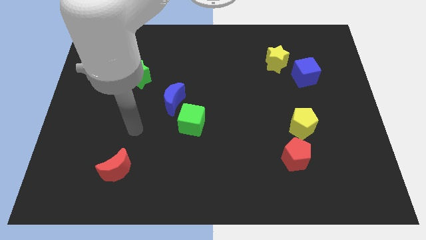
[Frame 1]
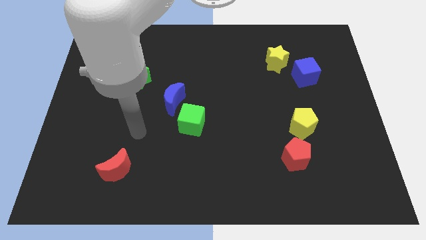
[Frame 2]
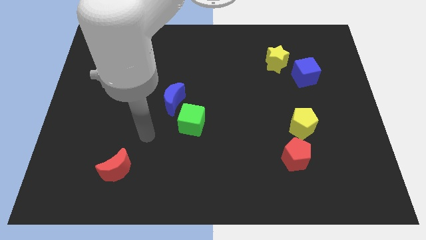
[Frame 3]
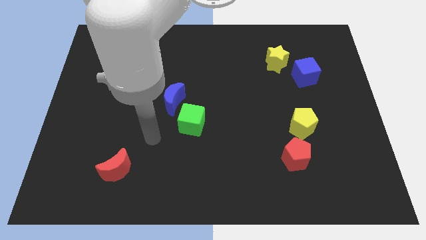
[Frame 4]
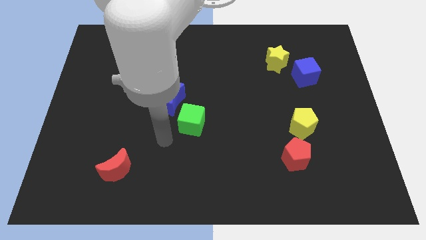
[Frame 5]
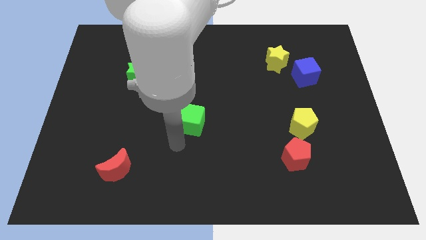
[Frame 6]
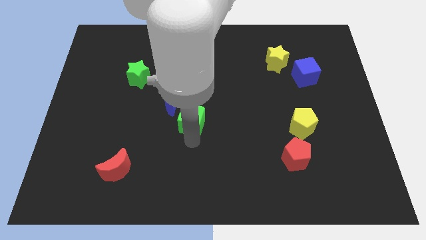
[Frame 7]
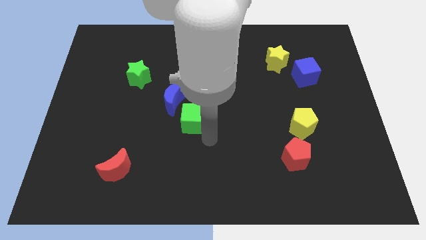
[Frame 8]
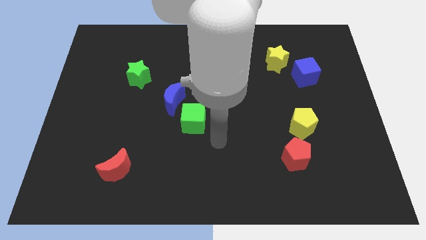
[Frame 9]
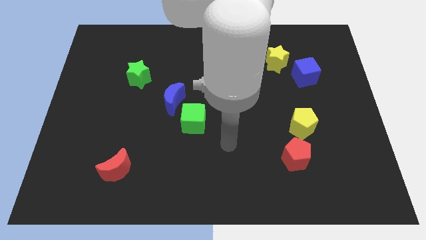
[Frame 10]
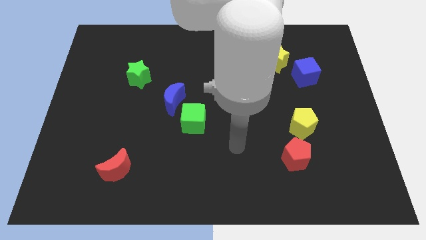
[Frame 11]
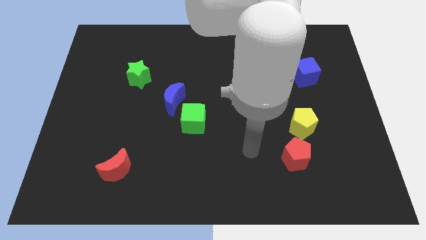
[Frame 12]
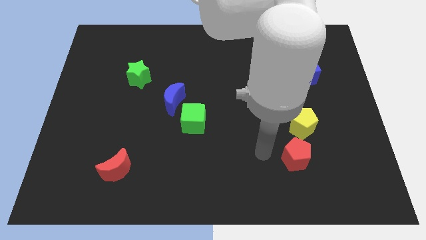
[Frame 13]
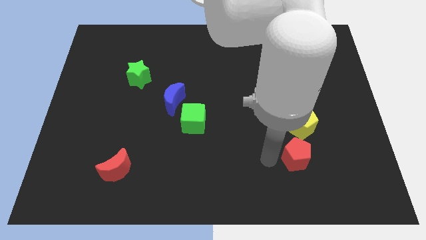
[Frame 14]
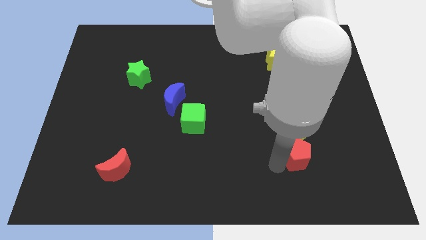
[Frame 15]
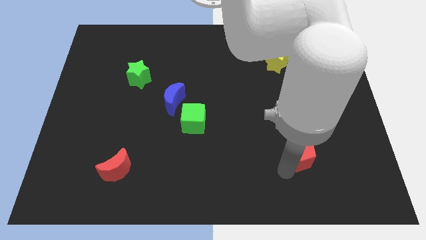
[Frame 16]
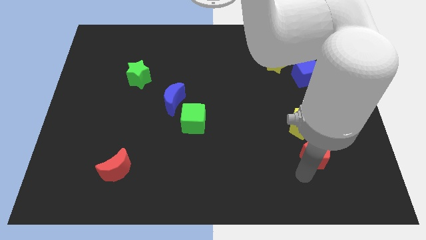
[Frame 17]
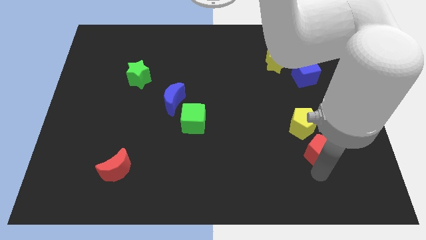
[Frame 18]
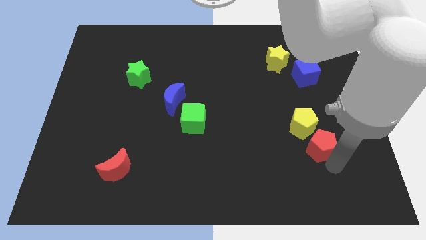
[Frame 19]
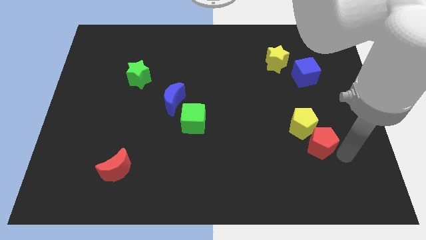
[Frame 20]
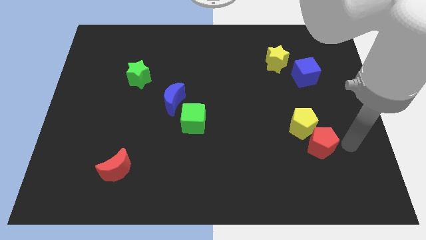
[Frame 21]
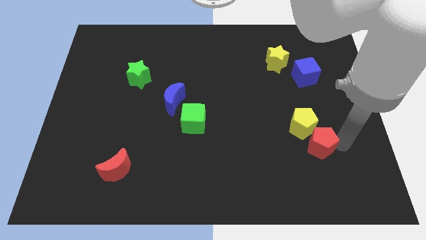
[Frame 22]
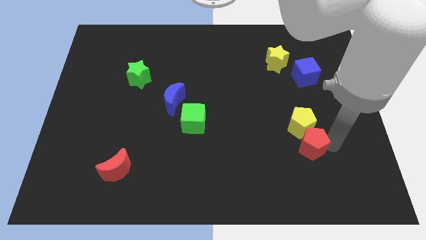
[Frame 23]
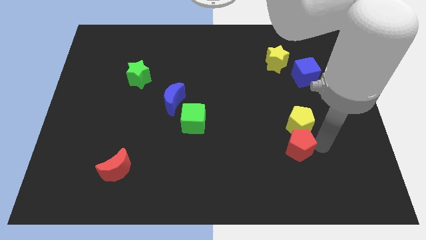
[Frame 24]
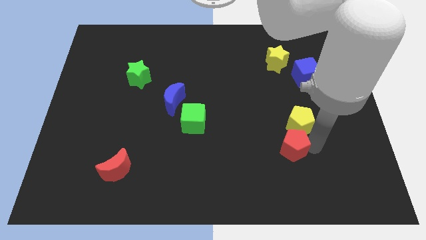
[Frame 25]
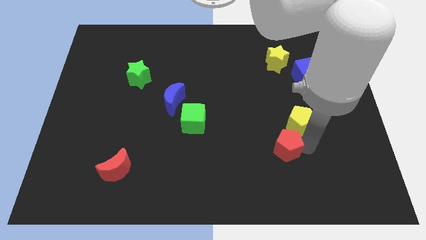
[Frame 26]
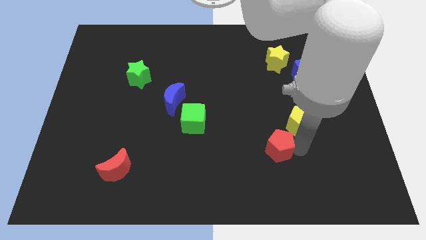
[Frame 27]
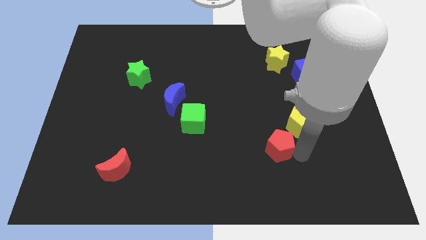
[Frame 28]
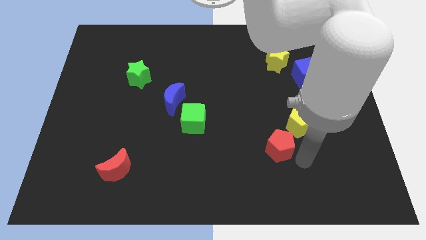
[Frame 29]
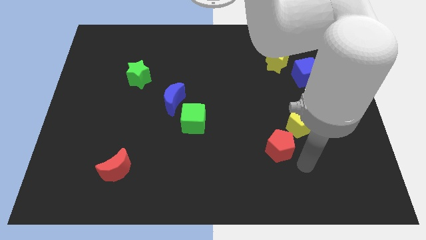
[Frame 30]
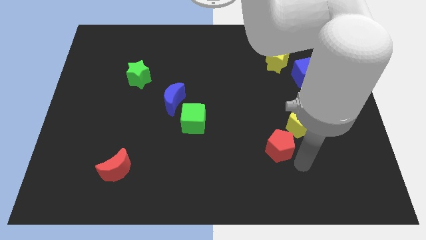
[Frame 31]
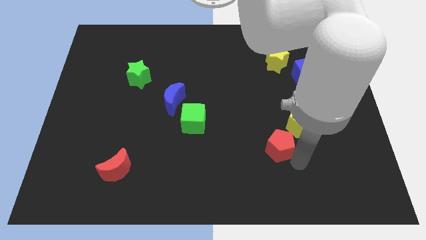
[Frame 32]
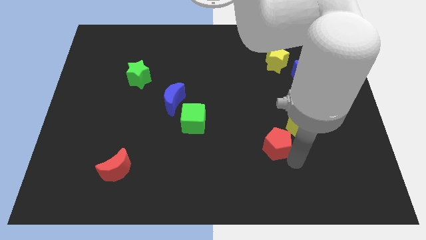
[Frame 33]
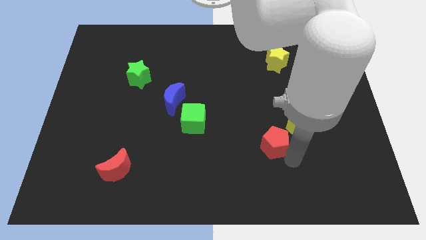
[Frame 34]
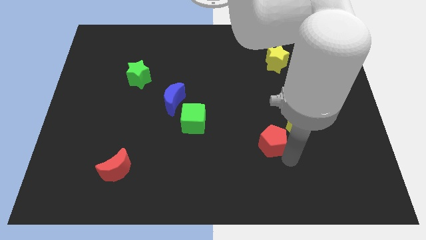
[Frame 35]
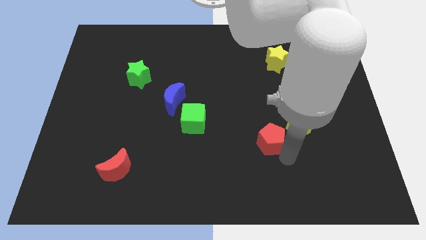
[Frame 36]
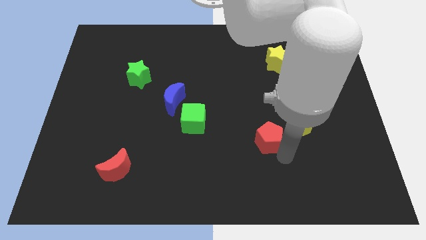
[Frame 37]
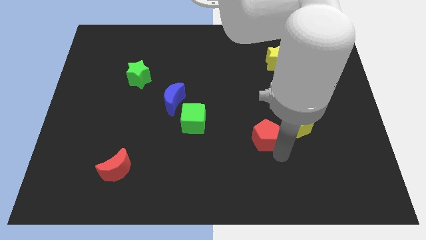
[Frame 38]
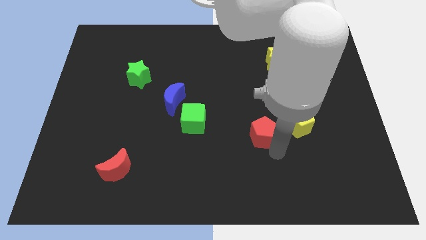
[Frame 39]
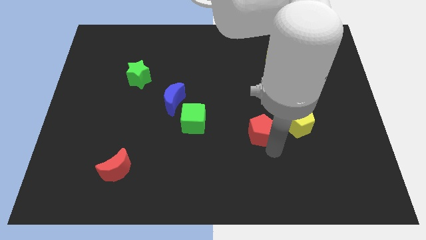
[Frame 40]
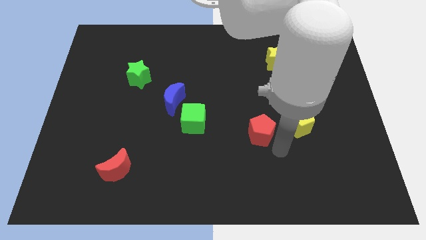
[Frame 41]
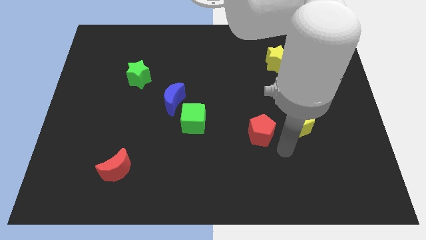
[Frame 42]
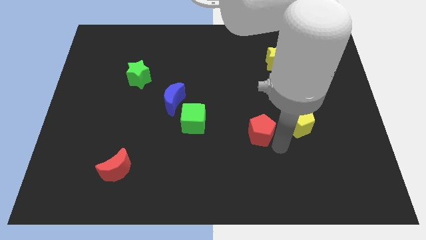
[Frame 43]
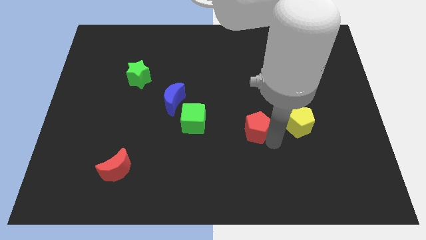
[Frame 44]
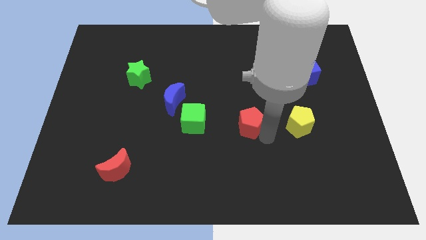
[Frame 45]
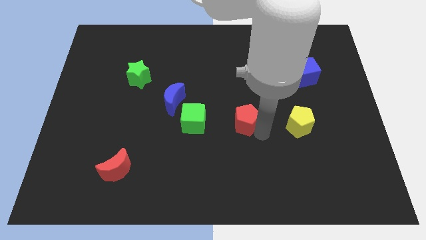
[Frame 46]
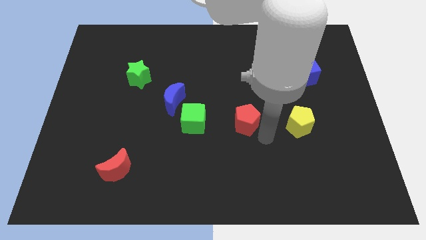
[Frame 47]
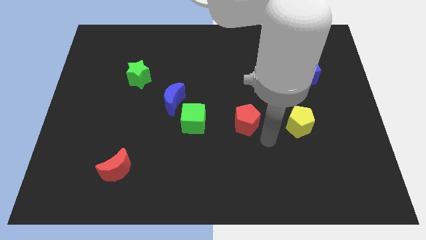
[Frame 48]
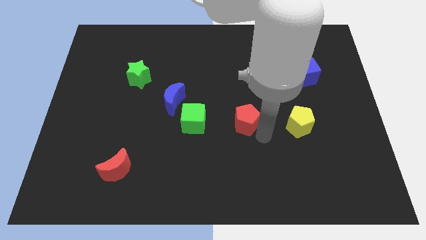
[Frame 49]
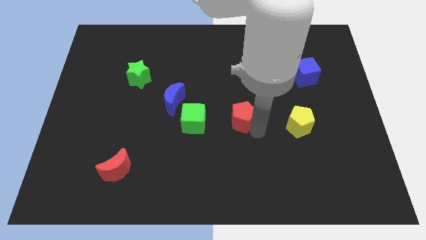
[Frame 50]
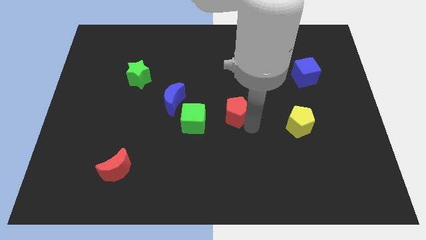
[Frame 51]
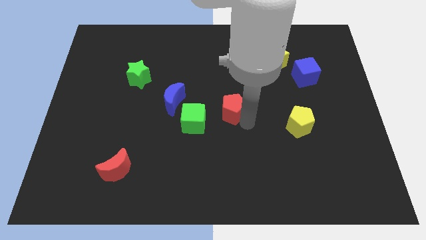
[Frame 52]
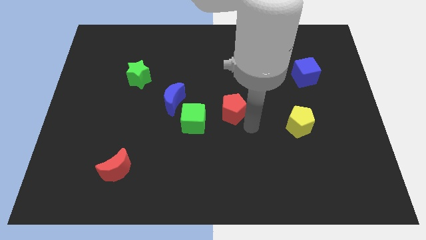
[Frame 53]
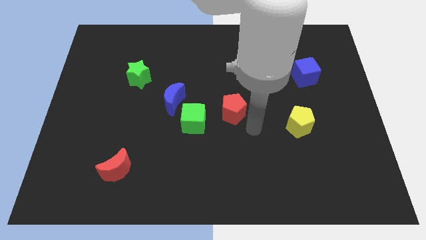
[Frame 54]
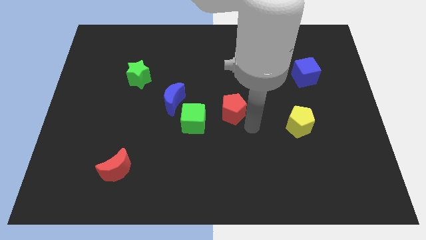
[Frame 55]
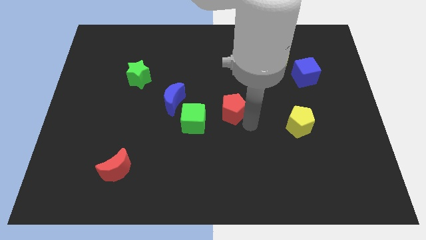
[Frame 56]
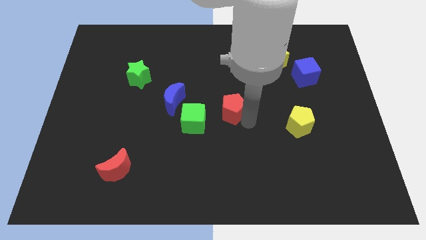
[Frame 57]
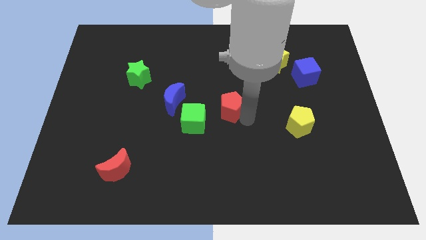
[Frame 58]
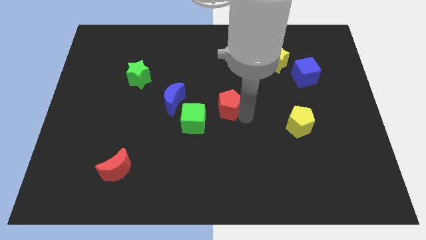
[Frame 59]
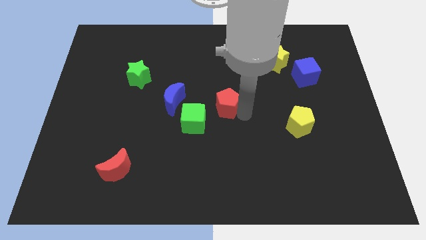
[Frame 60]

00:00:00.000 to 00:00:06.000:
move the red pentagon upwards and left

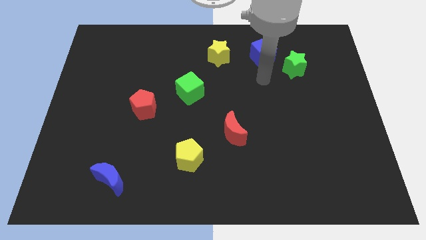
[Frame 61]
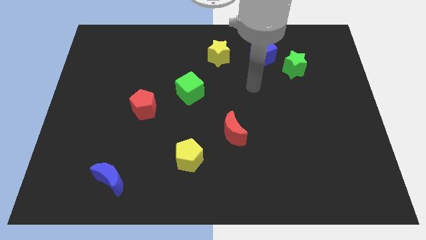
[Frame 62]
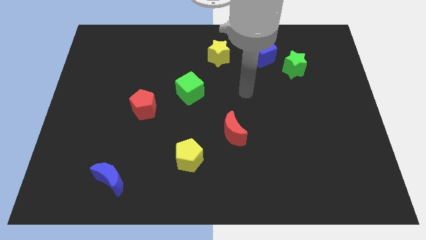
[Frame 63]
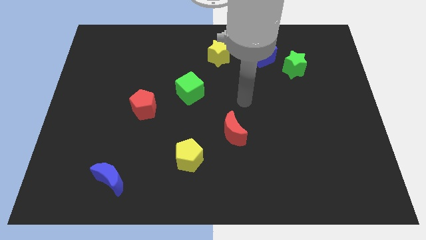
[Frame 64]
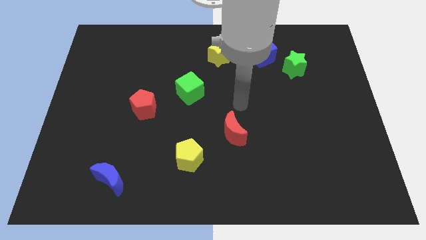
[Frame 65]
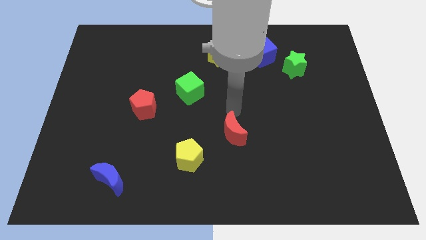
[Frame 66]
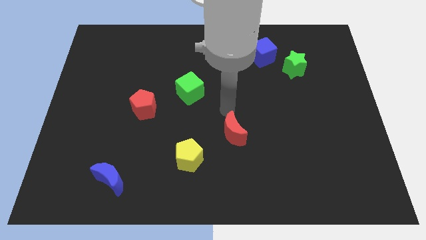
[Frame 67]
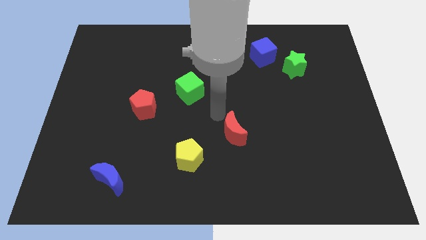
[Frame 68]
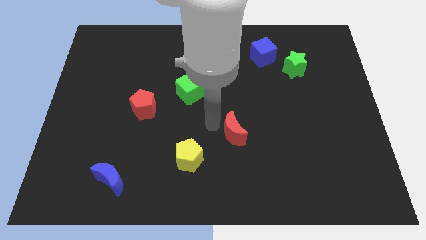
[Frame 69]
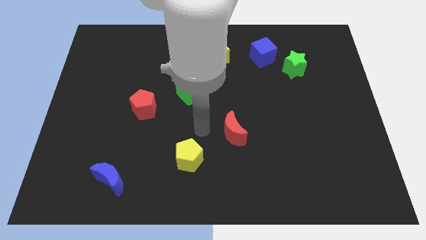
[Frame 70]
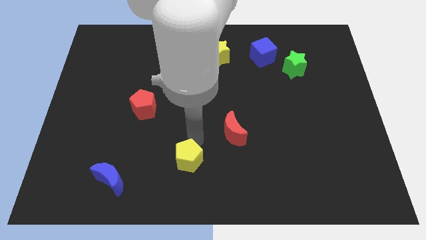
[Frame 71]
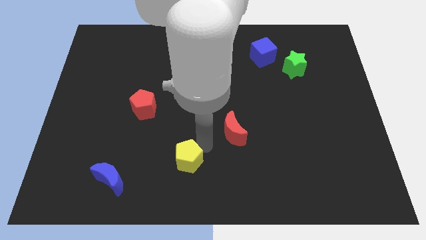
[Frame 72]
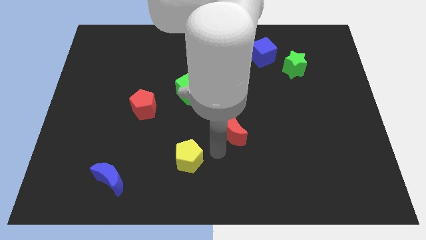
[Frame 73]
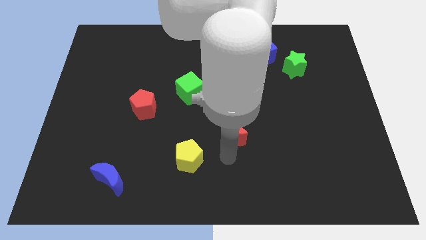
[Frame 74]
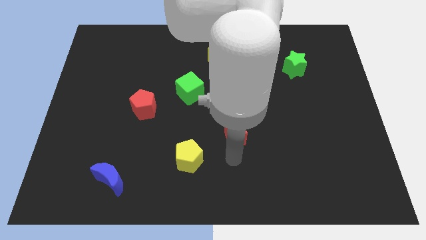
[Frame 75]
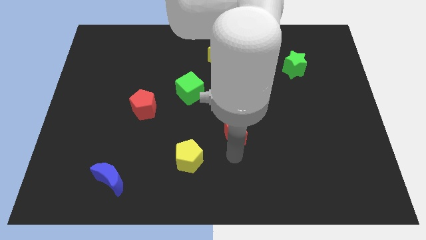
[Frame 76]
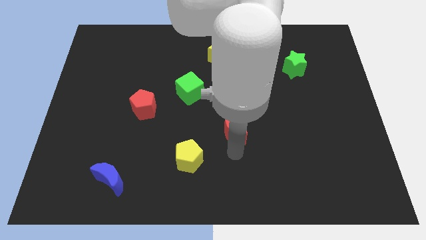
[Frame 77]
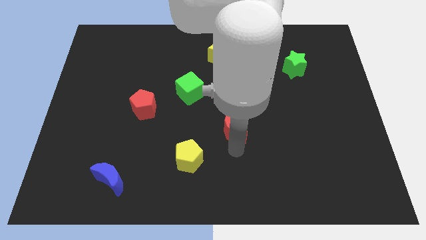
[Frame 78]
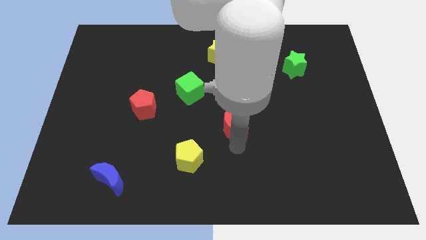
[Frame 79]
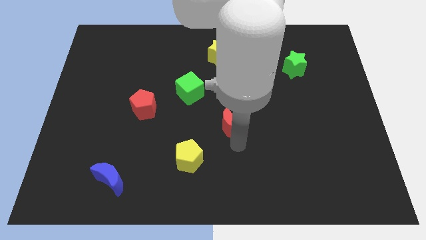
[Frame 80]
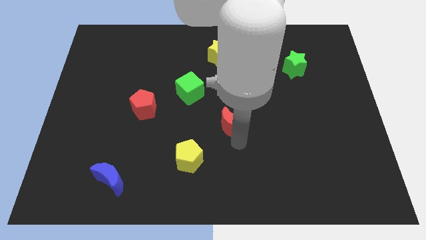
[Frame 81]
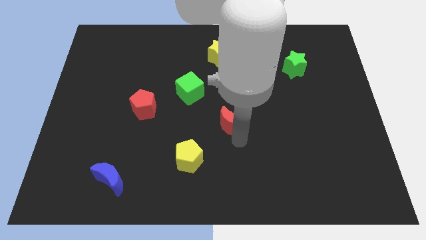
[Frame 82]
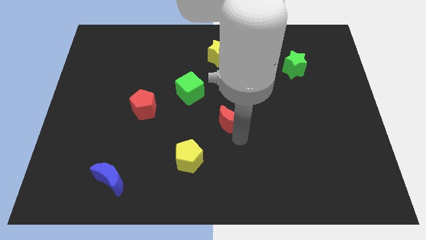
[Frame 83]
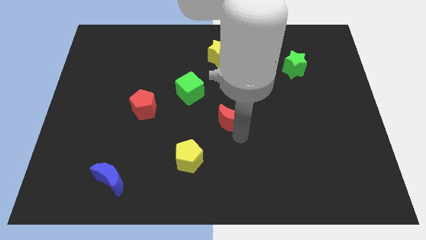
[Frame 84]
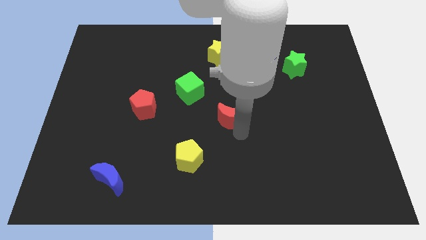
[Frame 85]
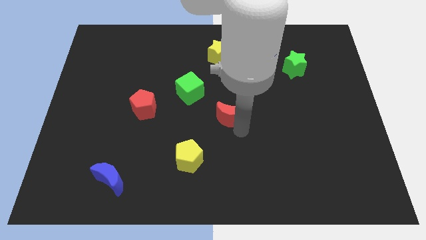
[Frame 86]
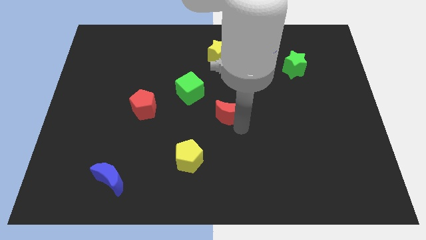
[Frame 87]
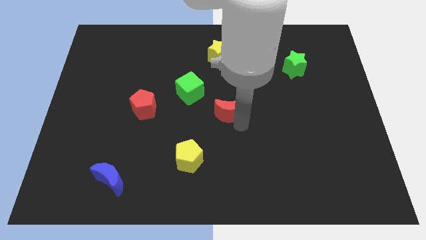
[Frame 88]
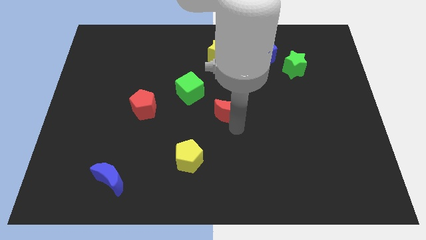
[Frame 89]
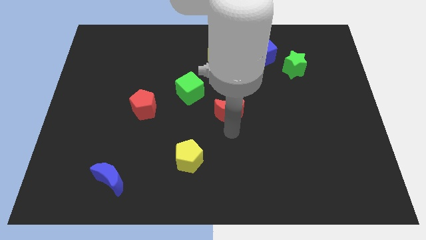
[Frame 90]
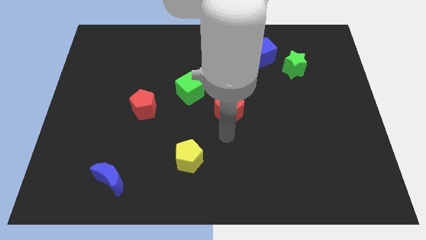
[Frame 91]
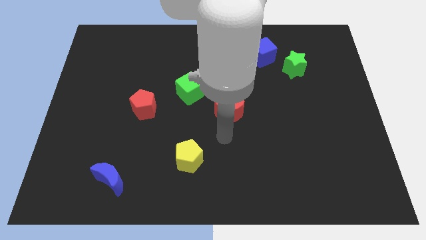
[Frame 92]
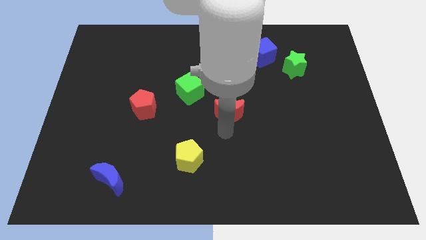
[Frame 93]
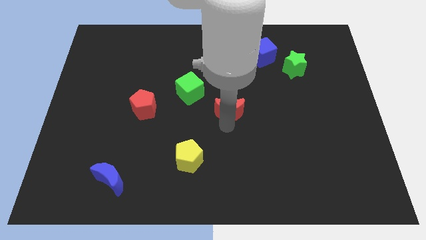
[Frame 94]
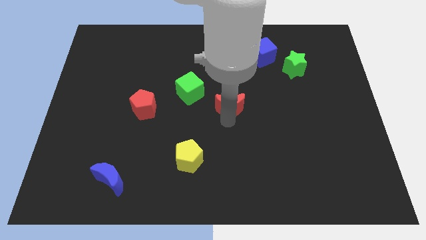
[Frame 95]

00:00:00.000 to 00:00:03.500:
push the red moon a little upwards
